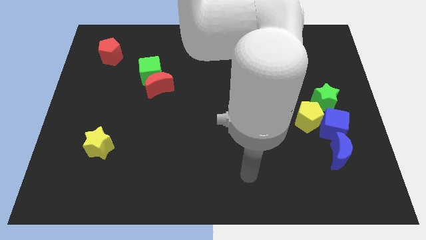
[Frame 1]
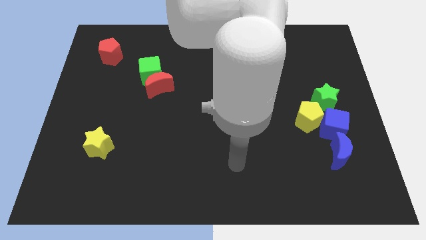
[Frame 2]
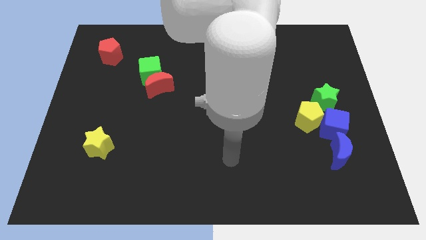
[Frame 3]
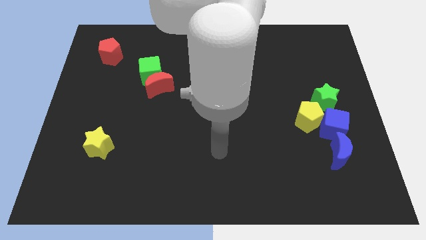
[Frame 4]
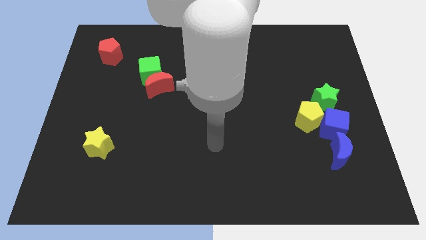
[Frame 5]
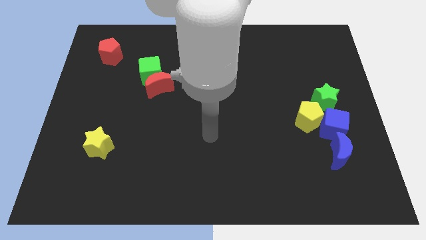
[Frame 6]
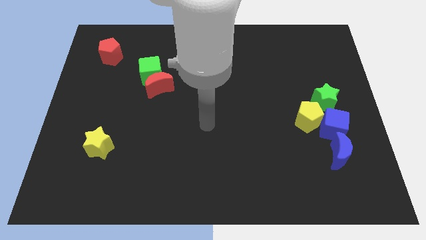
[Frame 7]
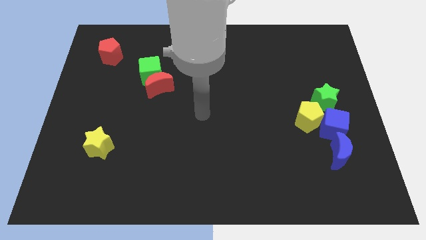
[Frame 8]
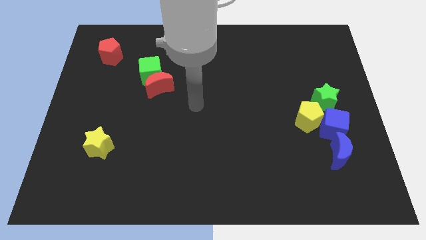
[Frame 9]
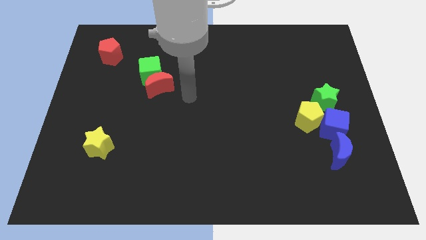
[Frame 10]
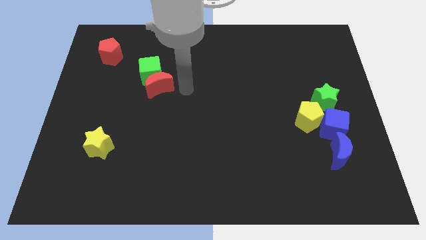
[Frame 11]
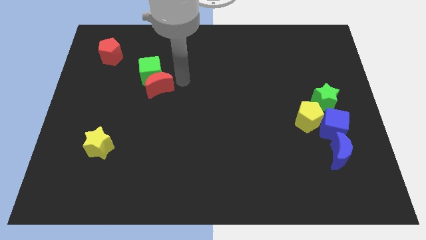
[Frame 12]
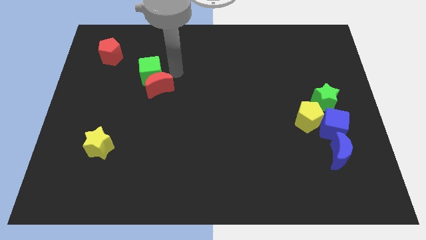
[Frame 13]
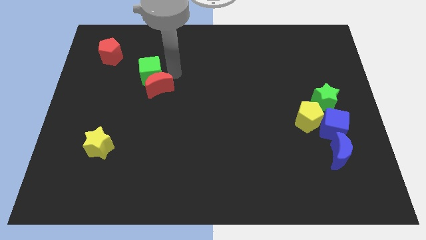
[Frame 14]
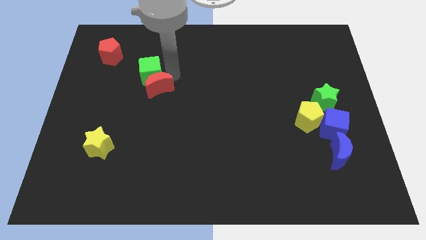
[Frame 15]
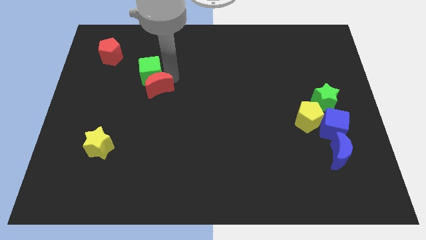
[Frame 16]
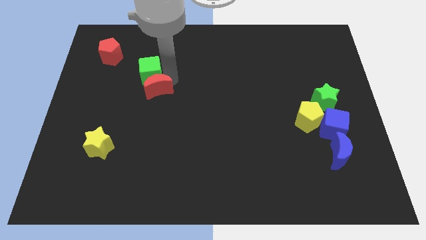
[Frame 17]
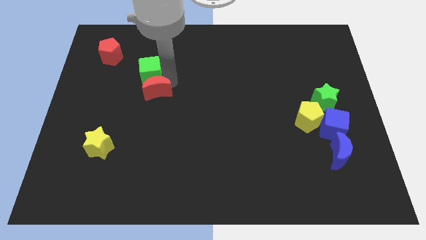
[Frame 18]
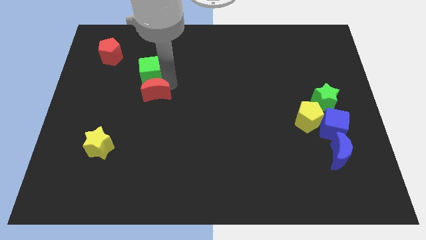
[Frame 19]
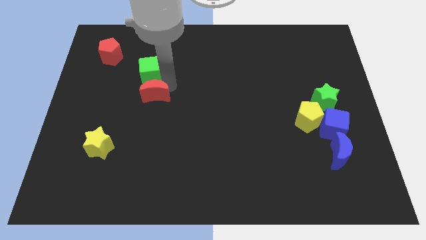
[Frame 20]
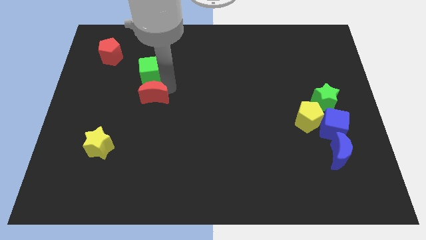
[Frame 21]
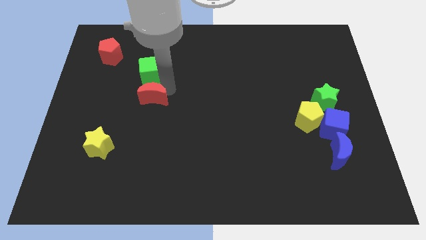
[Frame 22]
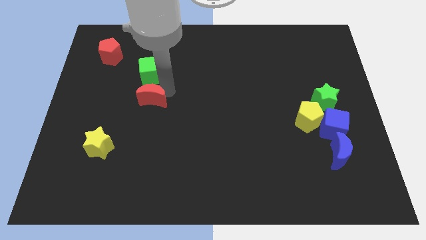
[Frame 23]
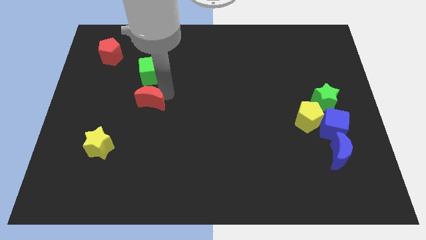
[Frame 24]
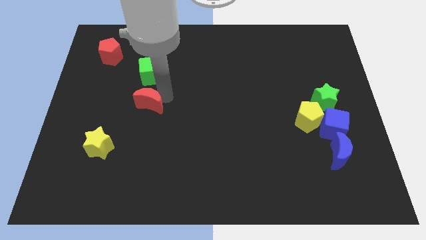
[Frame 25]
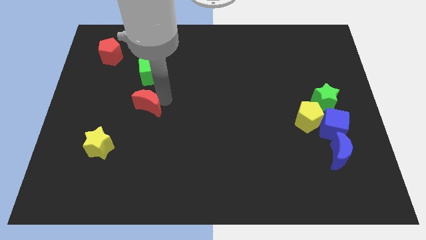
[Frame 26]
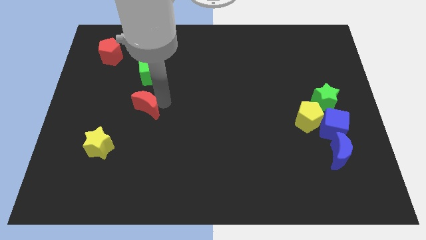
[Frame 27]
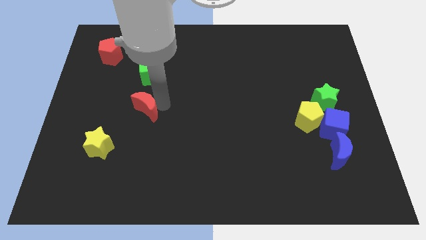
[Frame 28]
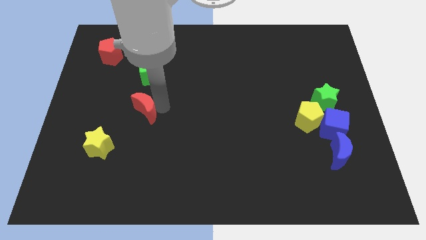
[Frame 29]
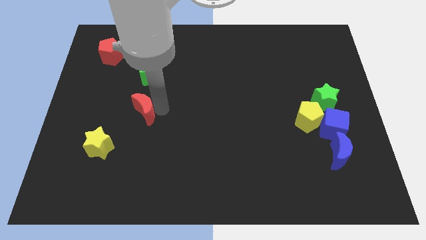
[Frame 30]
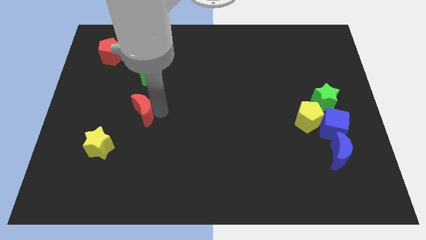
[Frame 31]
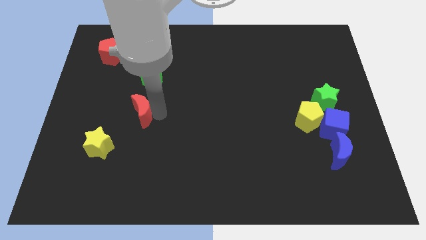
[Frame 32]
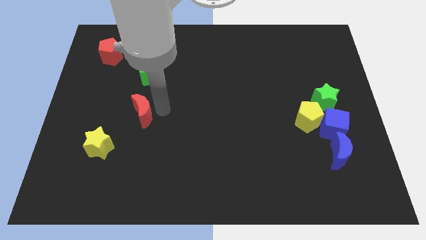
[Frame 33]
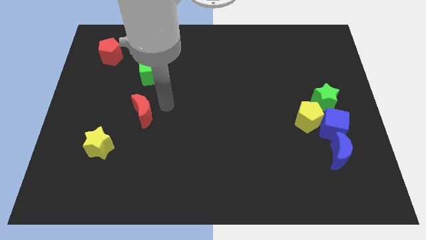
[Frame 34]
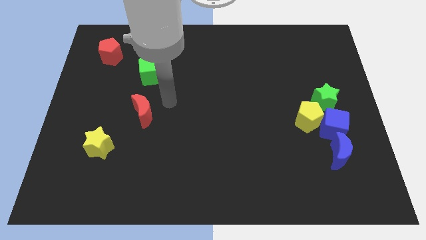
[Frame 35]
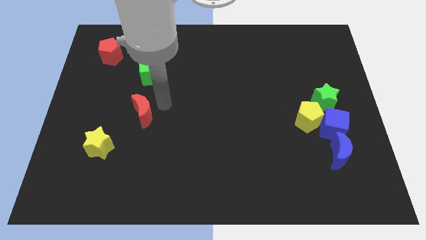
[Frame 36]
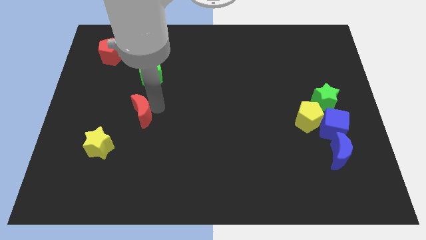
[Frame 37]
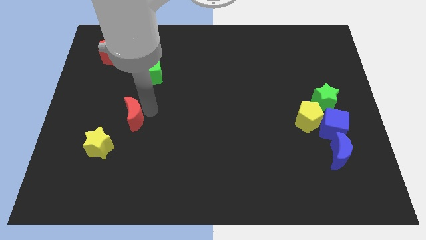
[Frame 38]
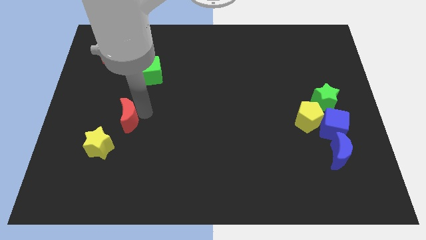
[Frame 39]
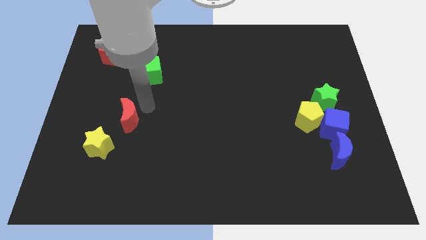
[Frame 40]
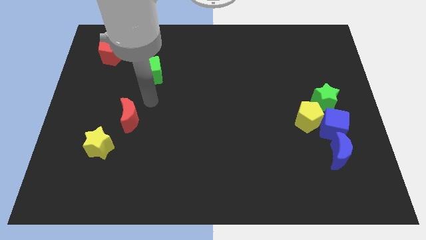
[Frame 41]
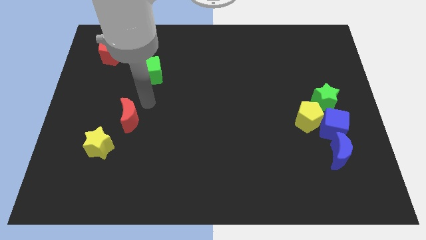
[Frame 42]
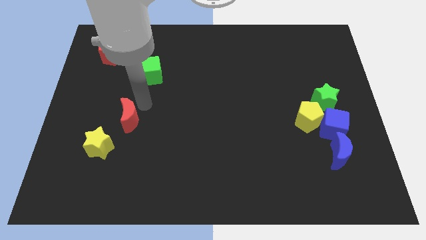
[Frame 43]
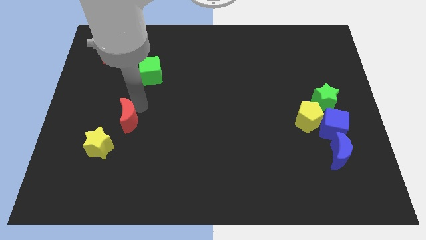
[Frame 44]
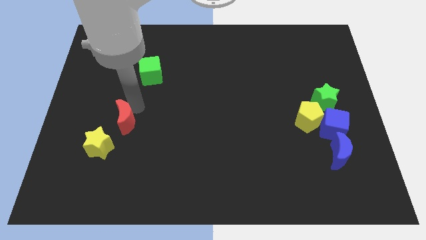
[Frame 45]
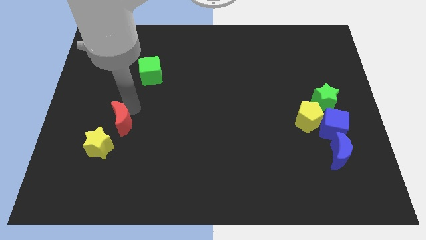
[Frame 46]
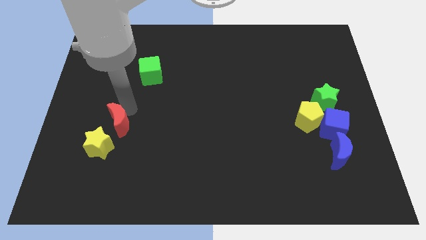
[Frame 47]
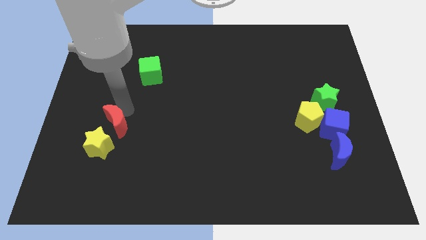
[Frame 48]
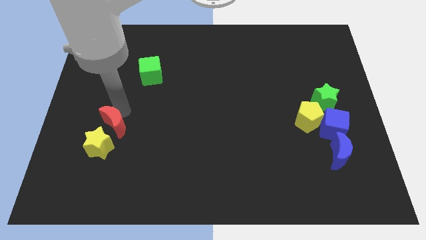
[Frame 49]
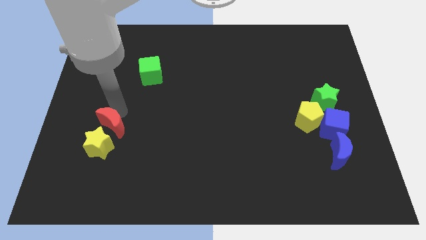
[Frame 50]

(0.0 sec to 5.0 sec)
slide the red moon to the yellow star

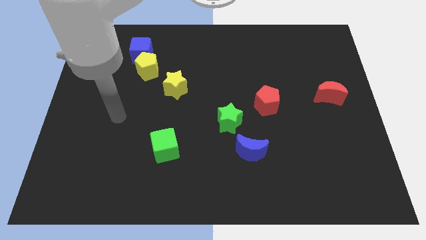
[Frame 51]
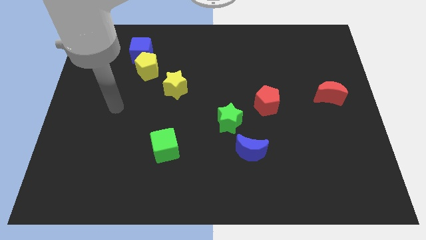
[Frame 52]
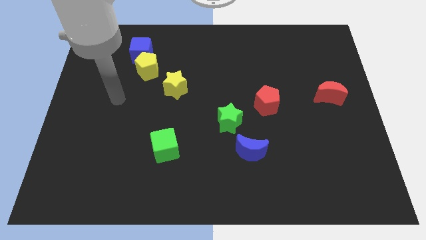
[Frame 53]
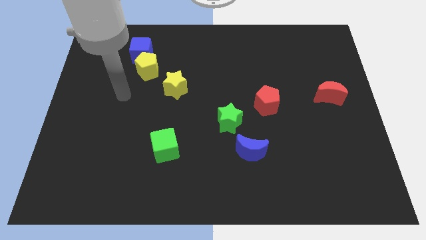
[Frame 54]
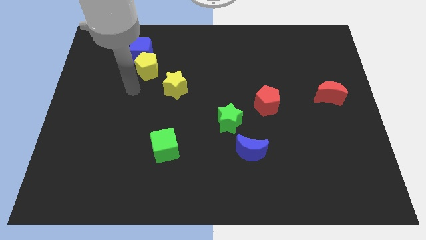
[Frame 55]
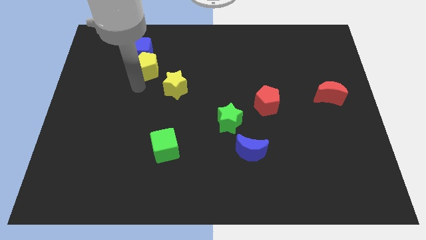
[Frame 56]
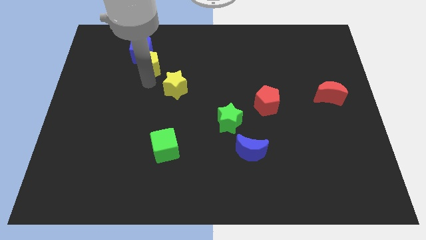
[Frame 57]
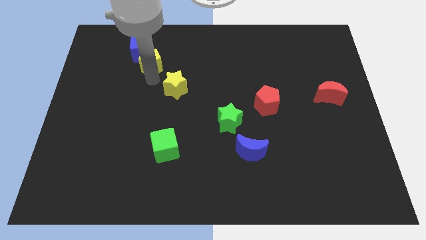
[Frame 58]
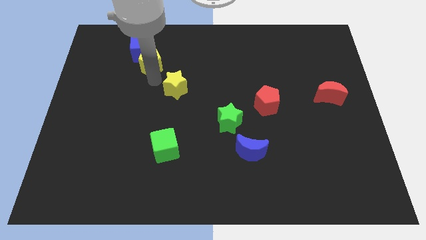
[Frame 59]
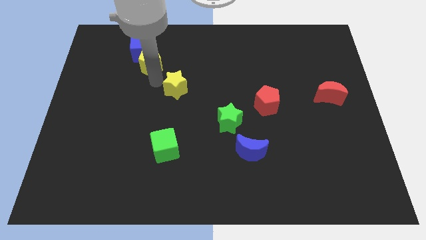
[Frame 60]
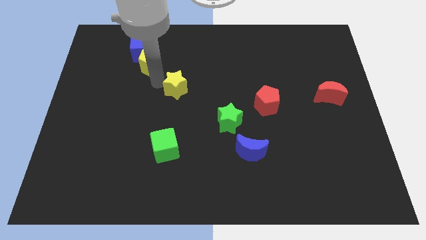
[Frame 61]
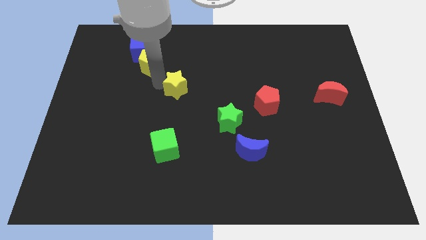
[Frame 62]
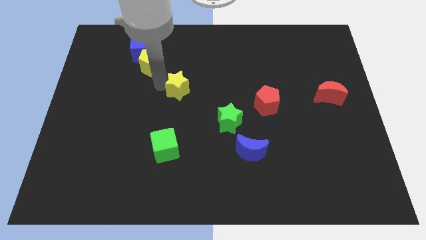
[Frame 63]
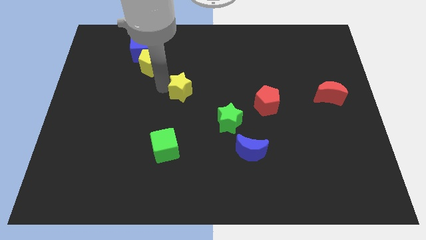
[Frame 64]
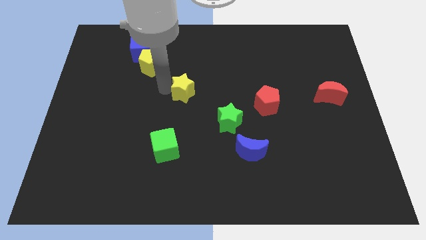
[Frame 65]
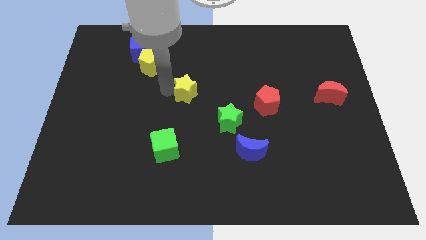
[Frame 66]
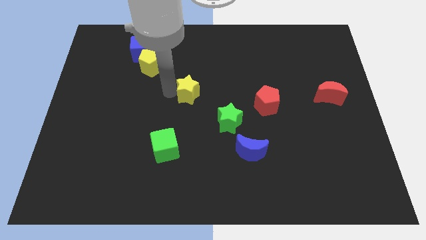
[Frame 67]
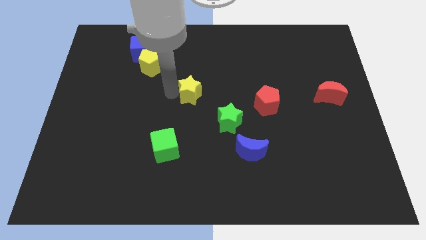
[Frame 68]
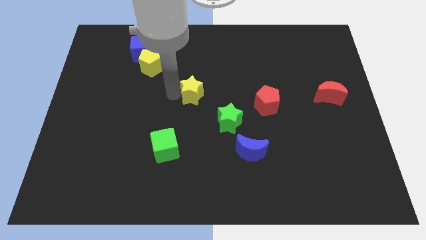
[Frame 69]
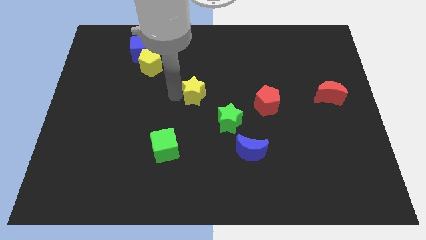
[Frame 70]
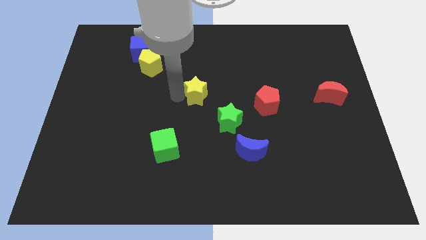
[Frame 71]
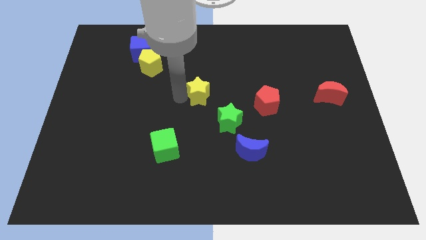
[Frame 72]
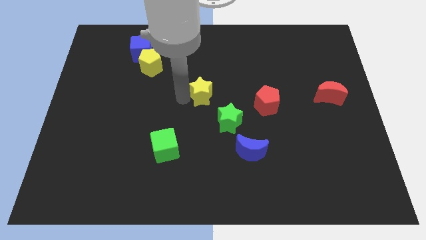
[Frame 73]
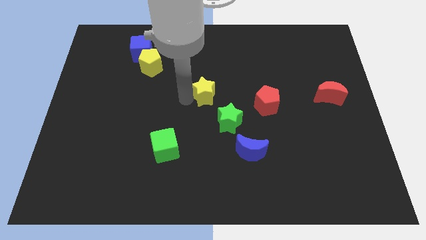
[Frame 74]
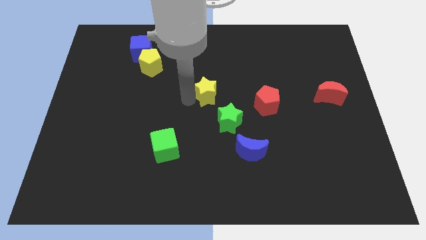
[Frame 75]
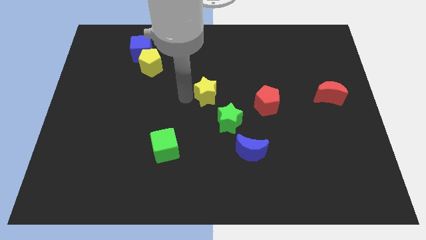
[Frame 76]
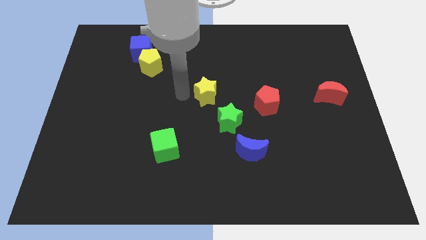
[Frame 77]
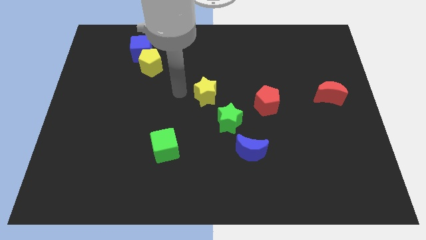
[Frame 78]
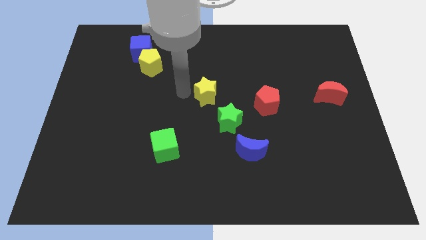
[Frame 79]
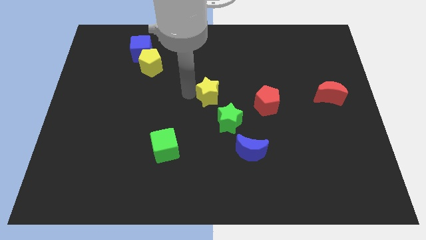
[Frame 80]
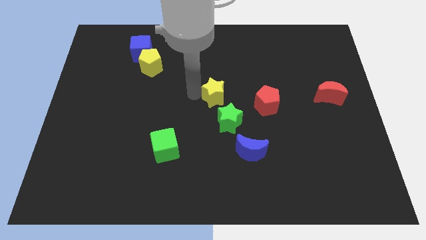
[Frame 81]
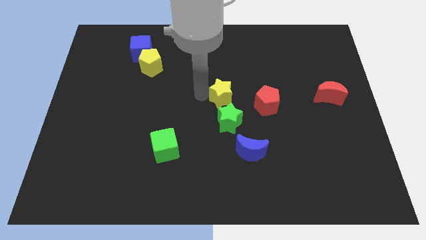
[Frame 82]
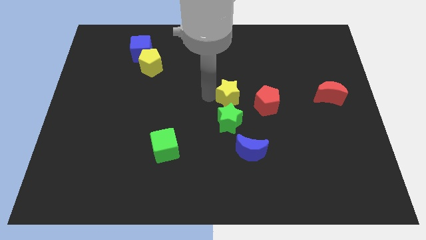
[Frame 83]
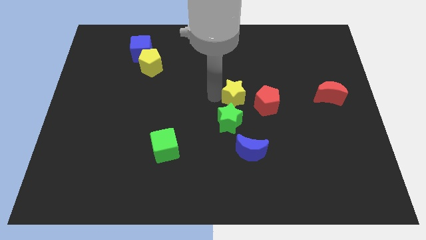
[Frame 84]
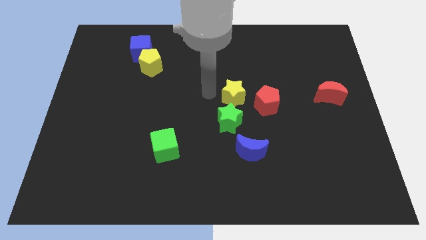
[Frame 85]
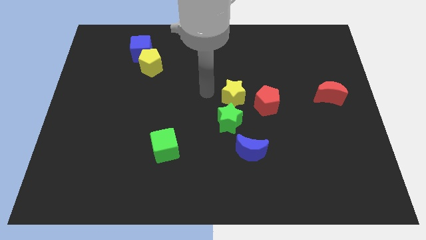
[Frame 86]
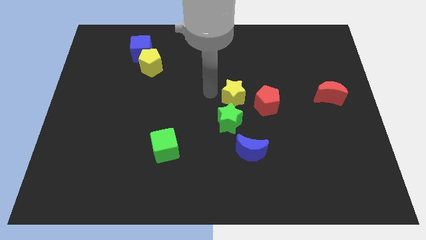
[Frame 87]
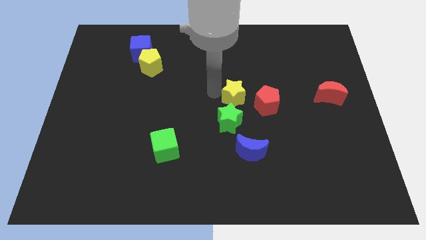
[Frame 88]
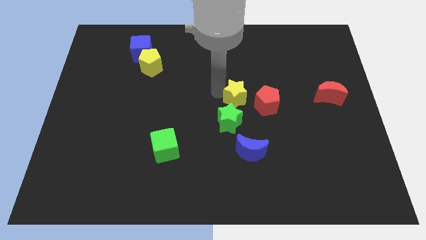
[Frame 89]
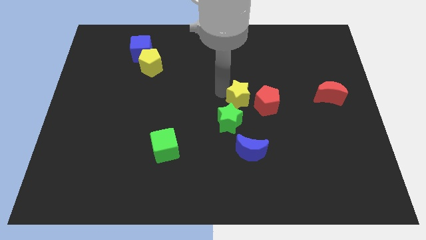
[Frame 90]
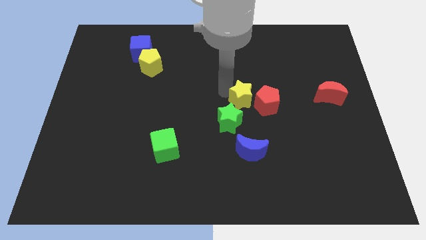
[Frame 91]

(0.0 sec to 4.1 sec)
move the yellow star close to the red pentagon
